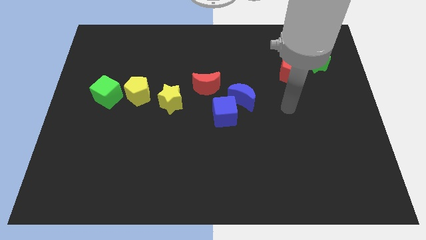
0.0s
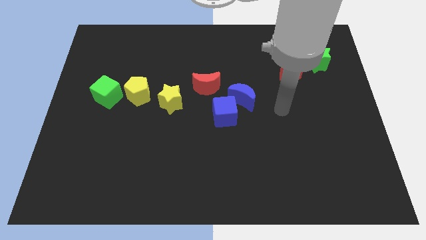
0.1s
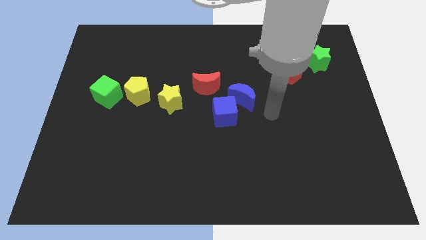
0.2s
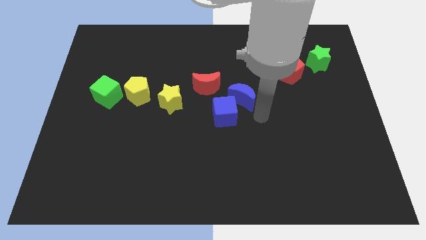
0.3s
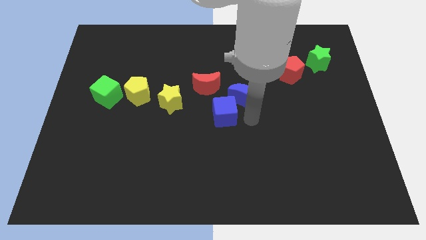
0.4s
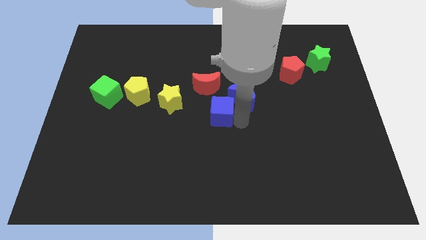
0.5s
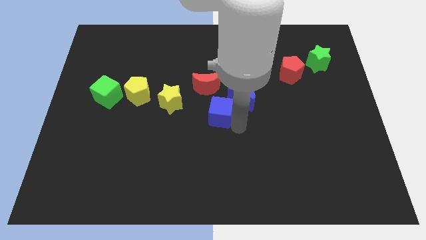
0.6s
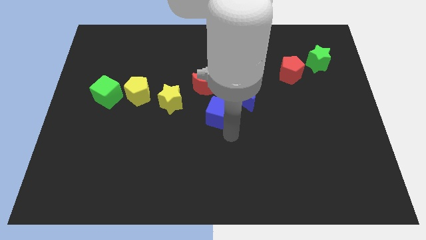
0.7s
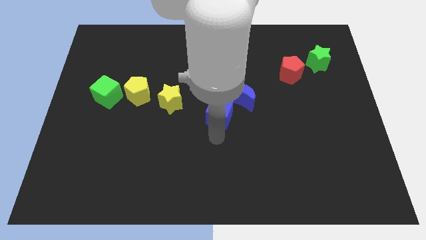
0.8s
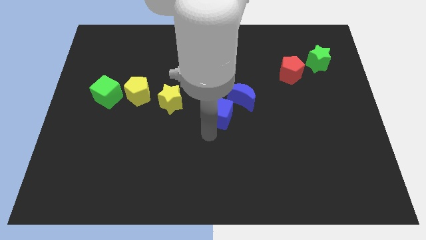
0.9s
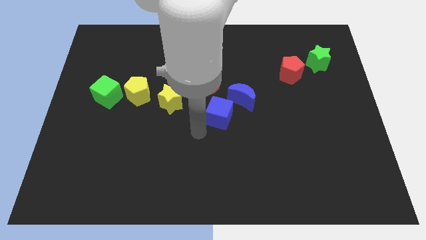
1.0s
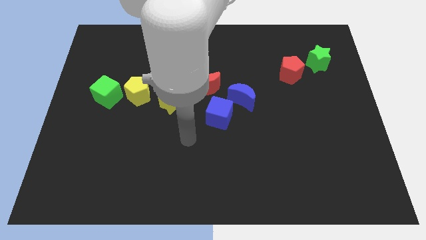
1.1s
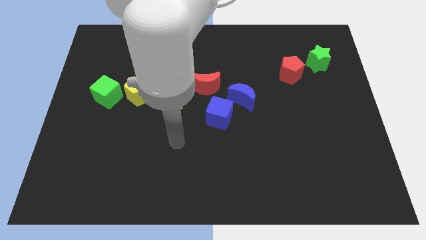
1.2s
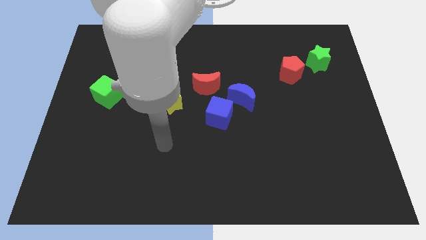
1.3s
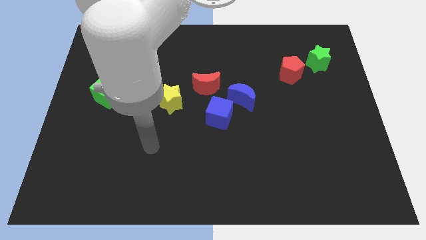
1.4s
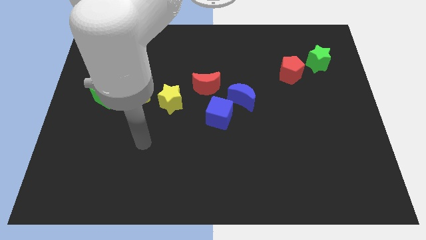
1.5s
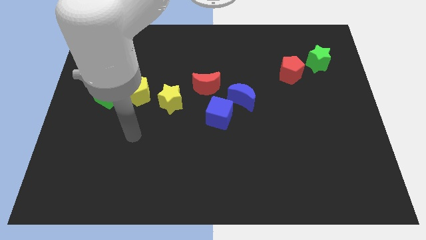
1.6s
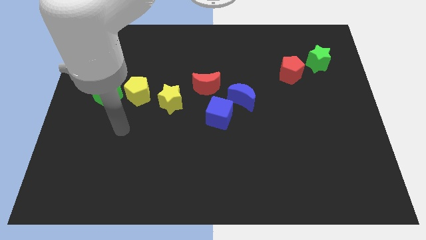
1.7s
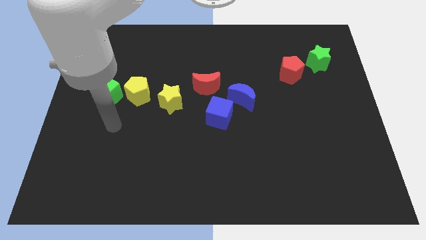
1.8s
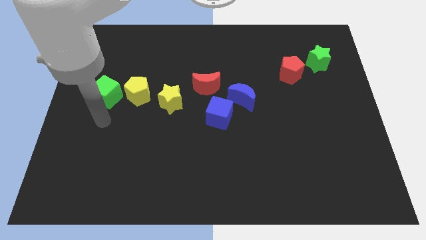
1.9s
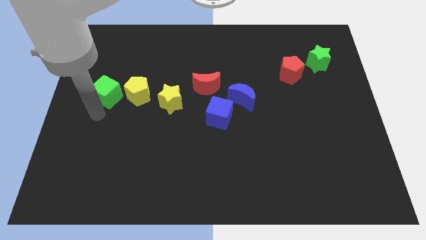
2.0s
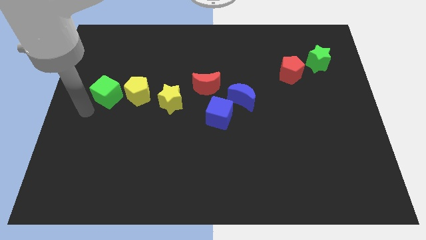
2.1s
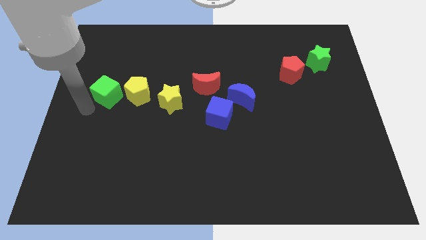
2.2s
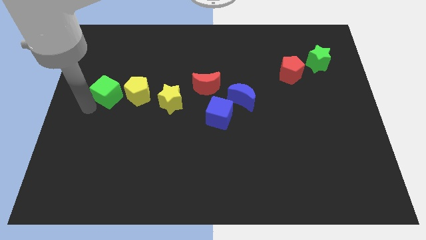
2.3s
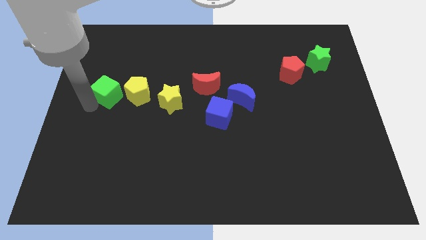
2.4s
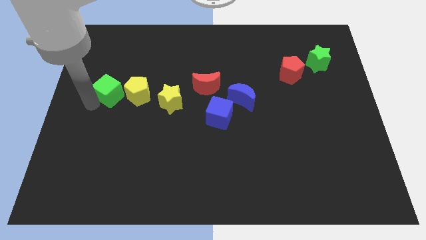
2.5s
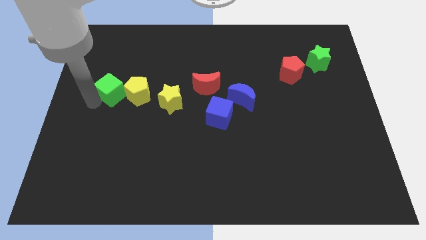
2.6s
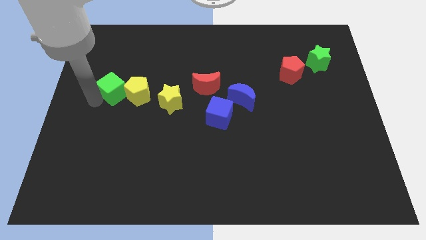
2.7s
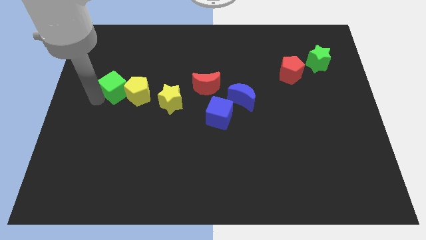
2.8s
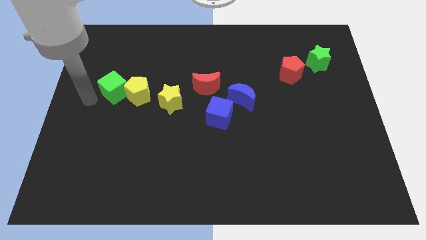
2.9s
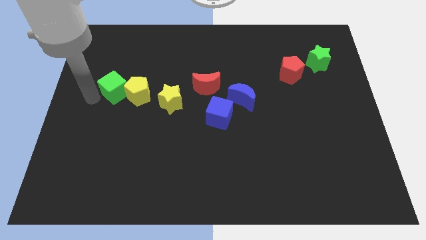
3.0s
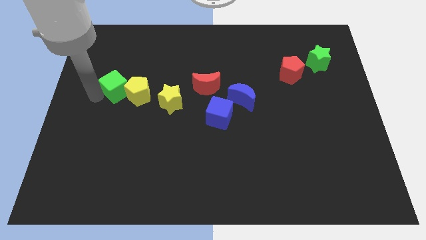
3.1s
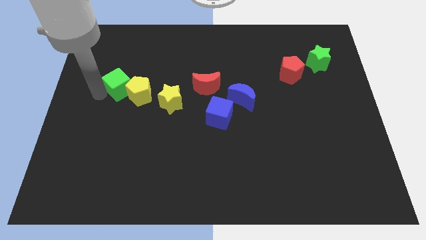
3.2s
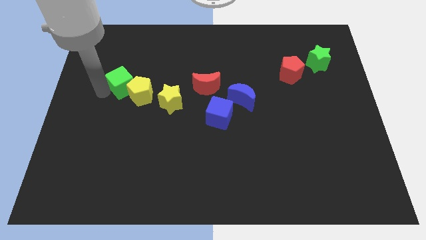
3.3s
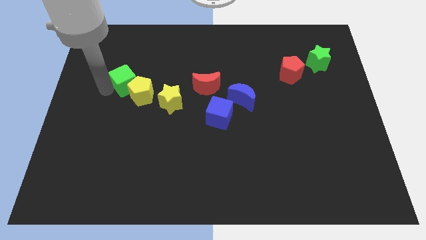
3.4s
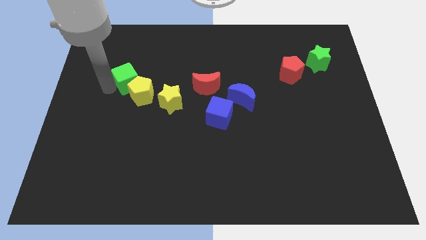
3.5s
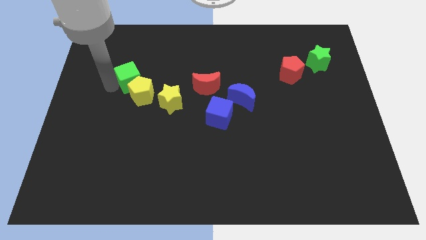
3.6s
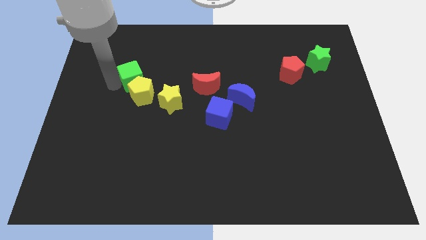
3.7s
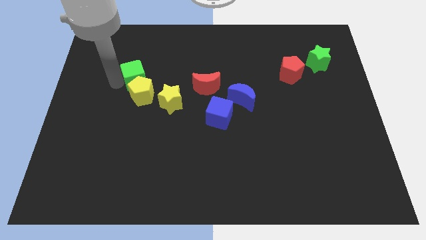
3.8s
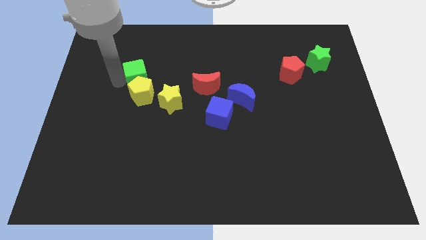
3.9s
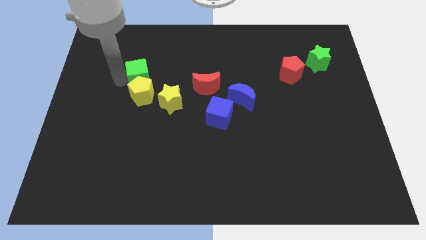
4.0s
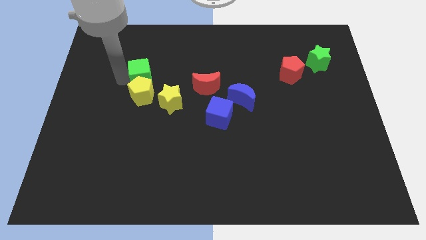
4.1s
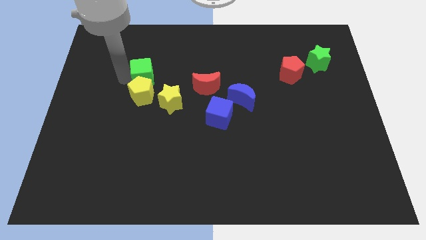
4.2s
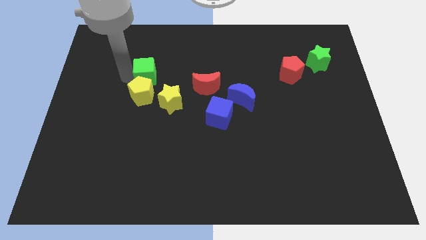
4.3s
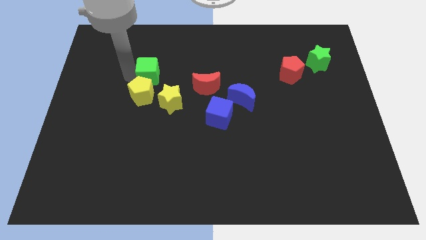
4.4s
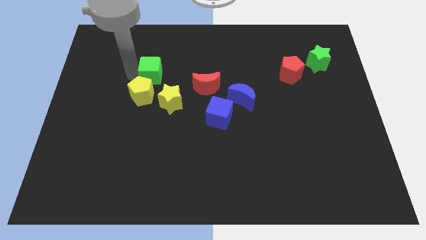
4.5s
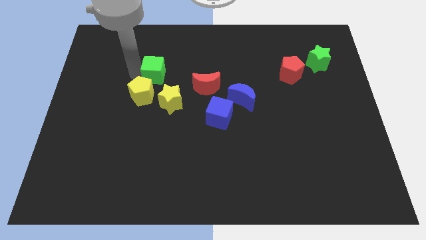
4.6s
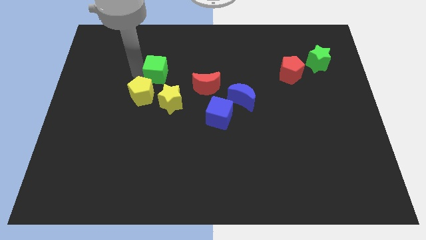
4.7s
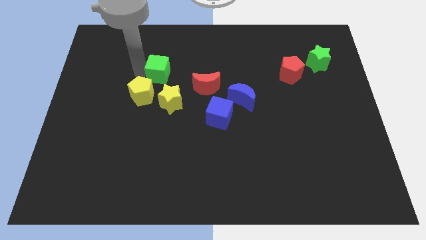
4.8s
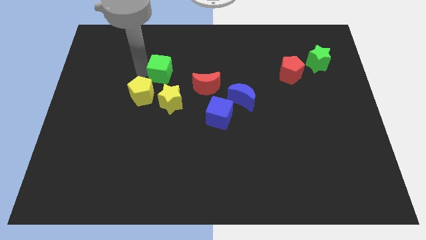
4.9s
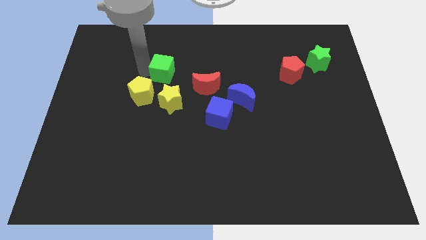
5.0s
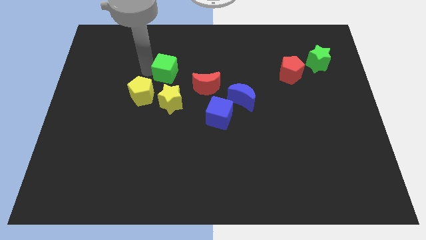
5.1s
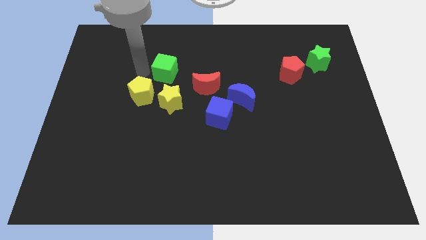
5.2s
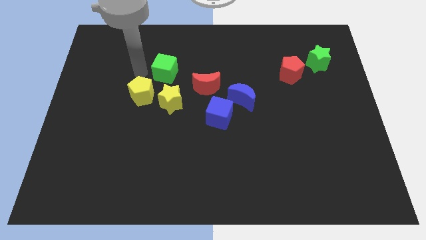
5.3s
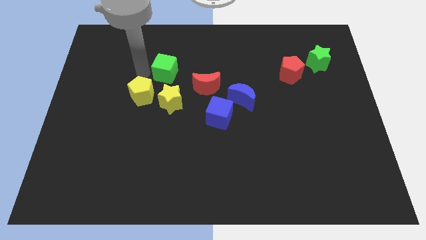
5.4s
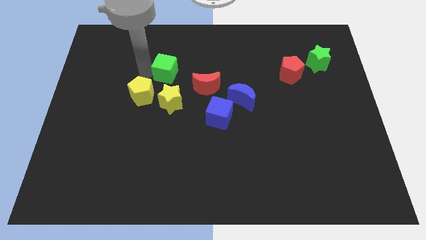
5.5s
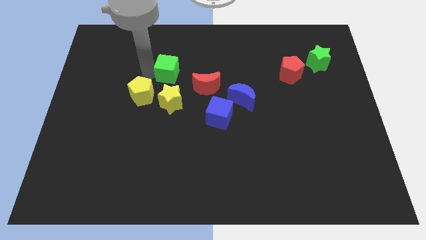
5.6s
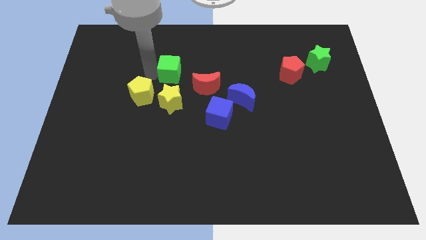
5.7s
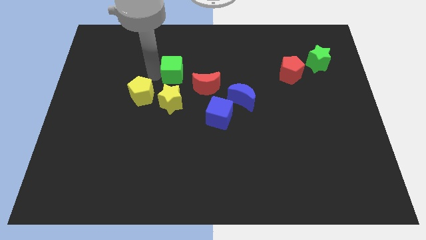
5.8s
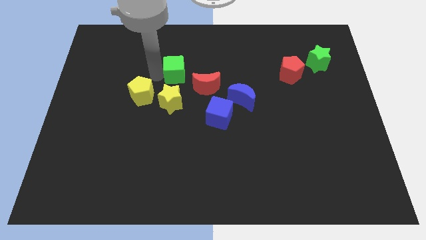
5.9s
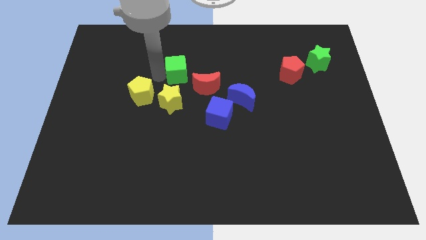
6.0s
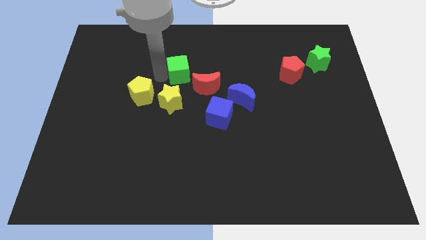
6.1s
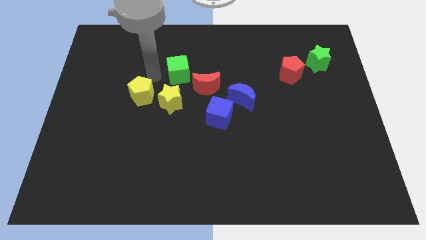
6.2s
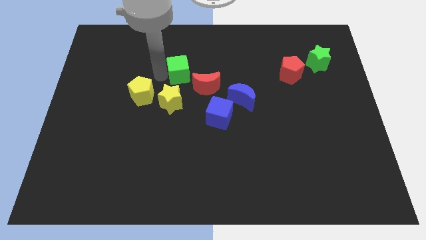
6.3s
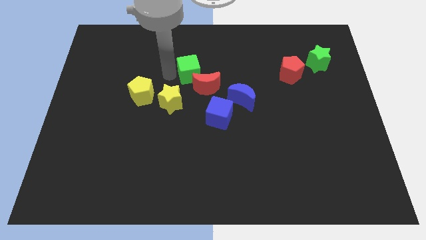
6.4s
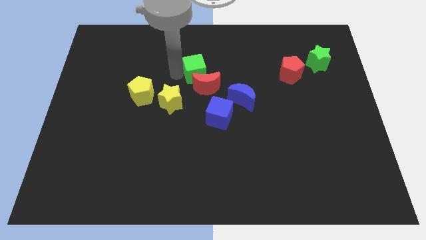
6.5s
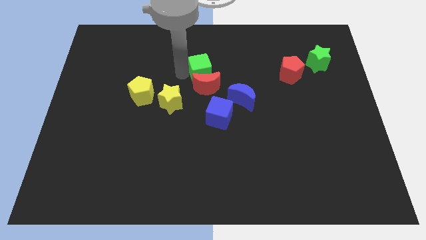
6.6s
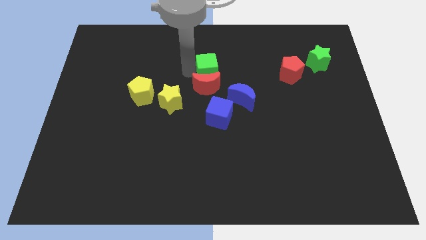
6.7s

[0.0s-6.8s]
slide the green cube to the top side of the blue cube
